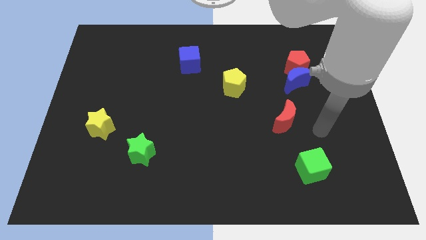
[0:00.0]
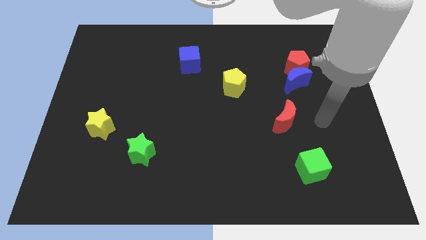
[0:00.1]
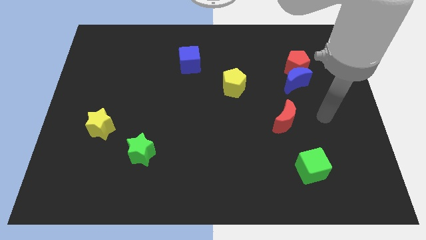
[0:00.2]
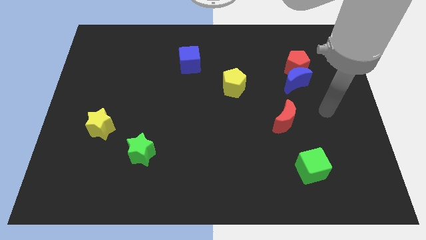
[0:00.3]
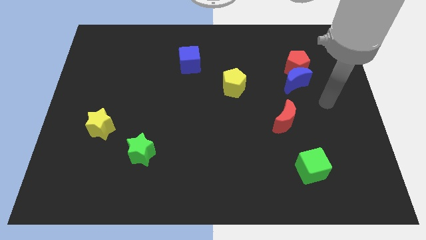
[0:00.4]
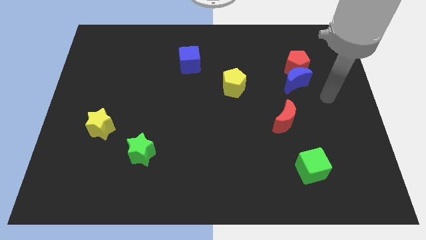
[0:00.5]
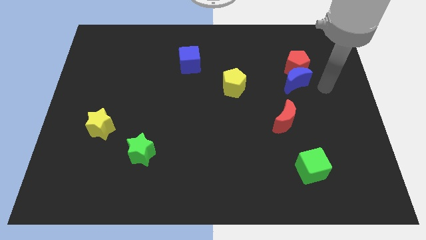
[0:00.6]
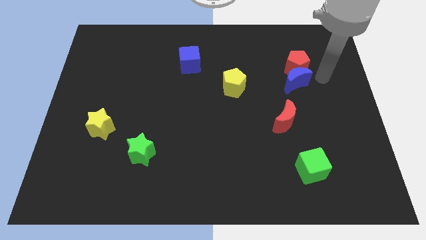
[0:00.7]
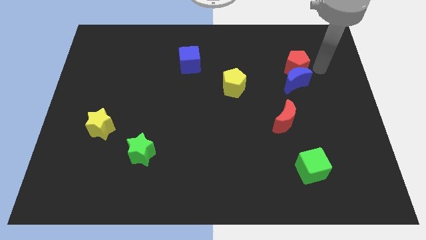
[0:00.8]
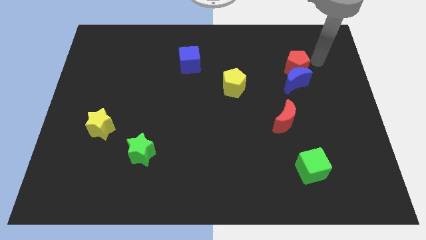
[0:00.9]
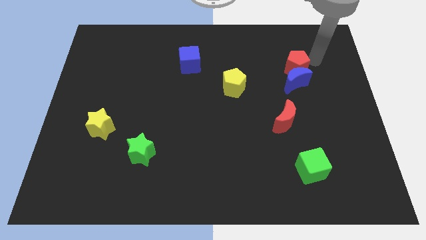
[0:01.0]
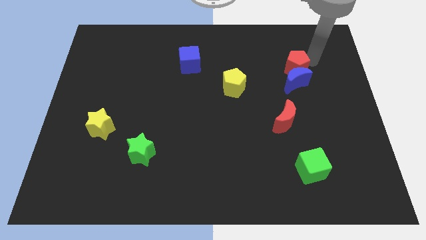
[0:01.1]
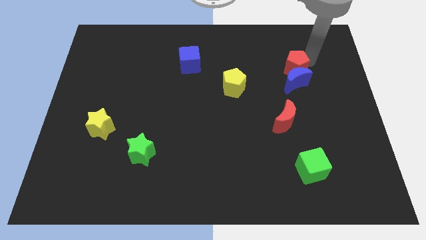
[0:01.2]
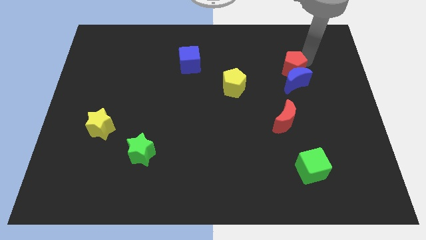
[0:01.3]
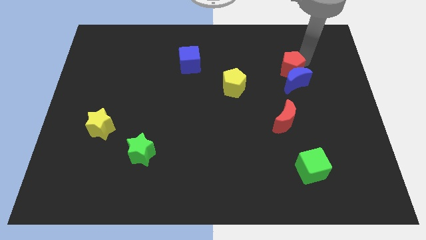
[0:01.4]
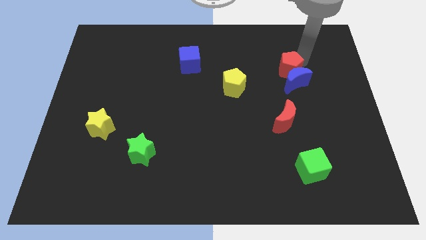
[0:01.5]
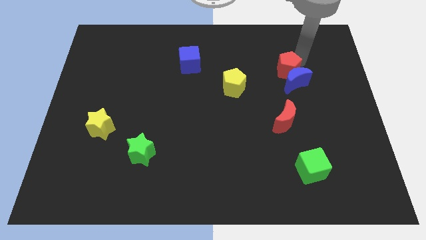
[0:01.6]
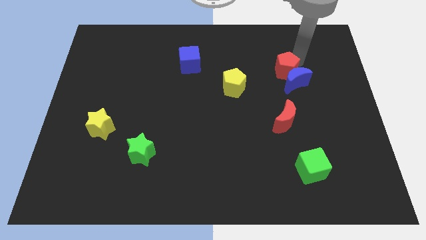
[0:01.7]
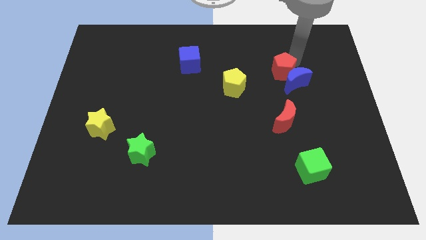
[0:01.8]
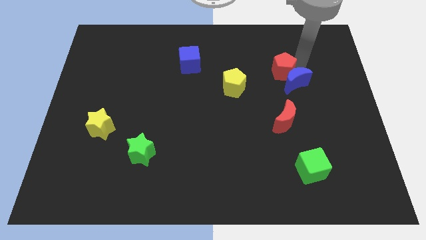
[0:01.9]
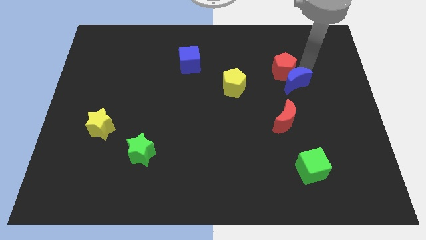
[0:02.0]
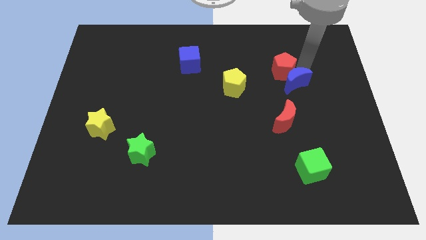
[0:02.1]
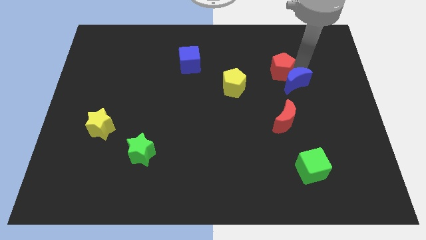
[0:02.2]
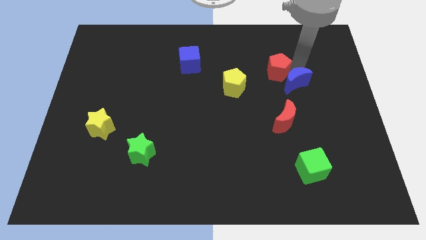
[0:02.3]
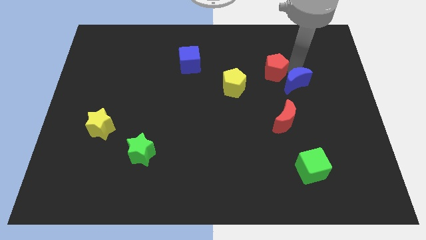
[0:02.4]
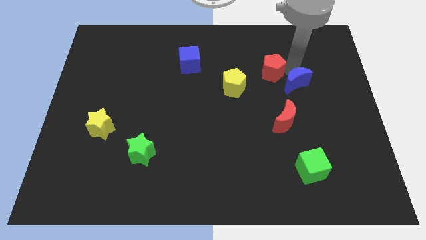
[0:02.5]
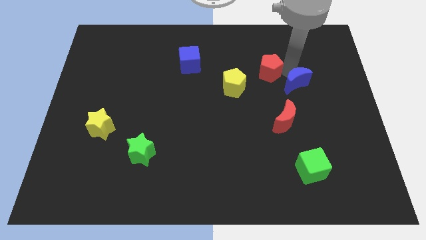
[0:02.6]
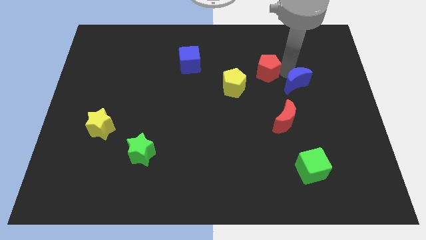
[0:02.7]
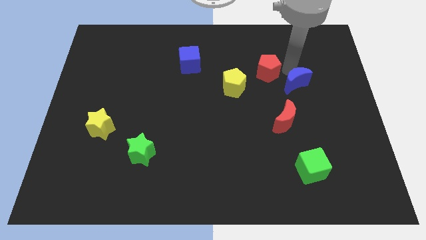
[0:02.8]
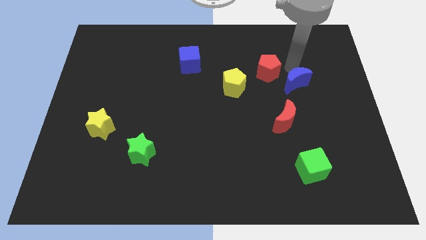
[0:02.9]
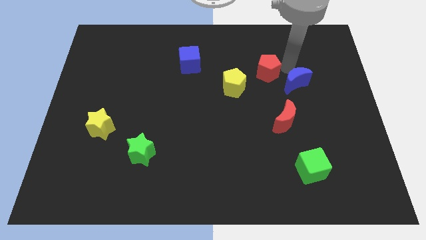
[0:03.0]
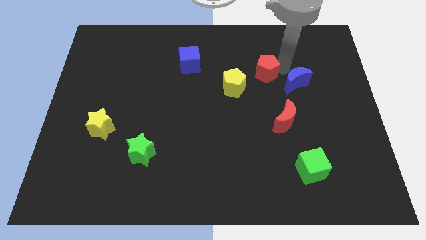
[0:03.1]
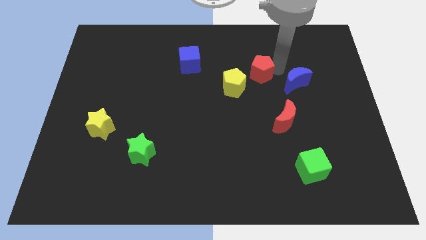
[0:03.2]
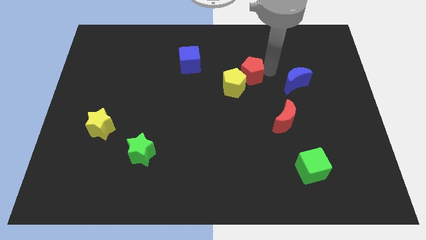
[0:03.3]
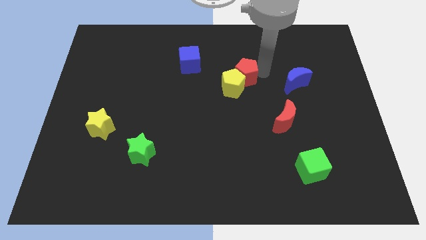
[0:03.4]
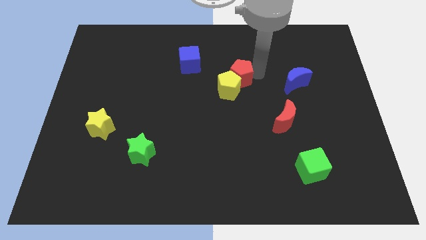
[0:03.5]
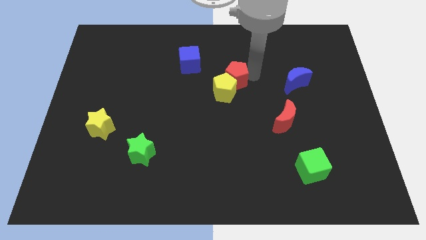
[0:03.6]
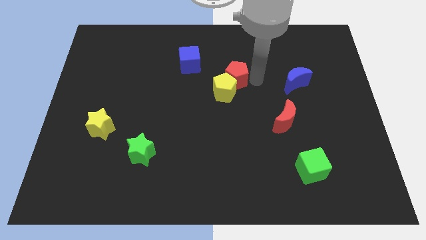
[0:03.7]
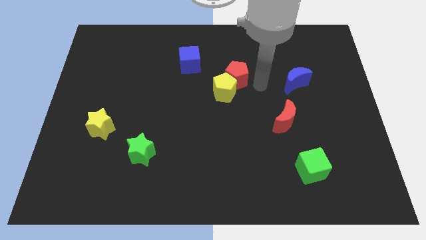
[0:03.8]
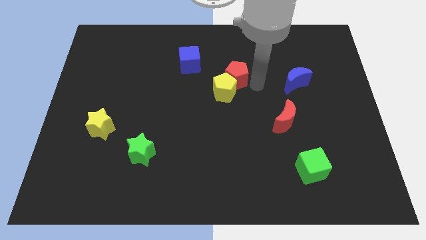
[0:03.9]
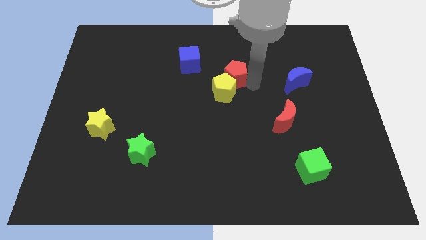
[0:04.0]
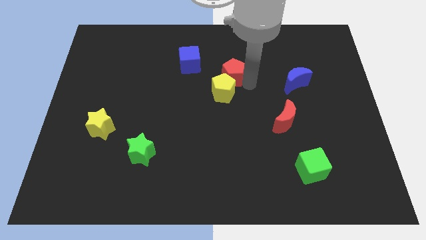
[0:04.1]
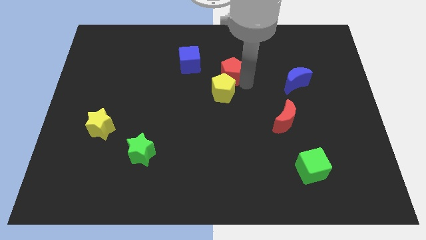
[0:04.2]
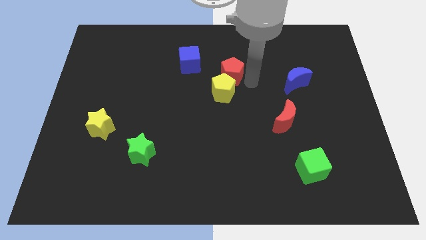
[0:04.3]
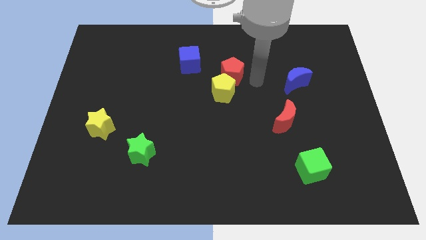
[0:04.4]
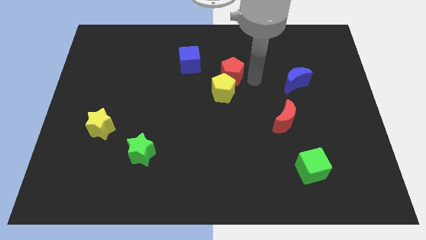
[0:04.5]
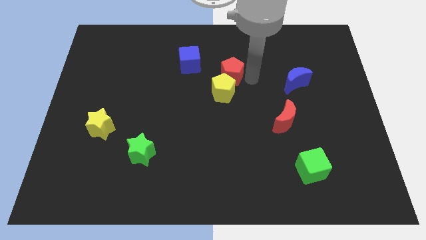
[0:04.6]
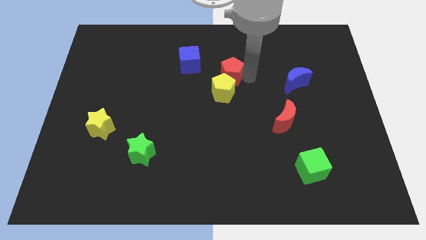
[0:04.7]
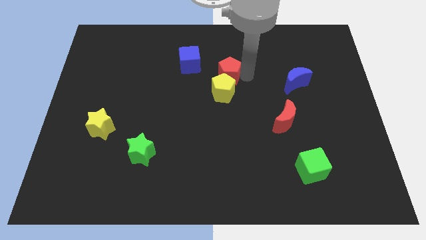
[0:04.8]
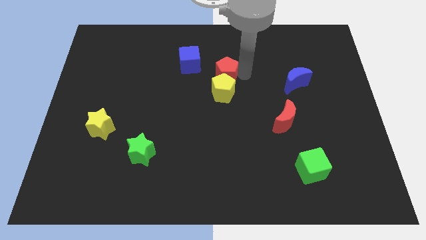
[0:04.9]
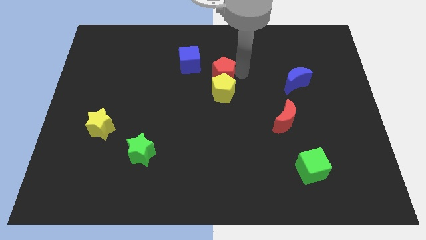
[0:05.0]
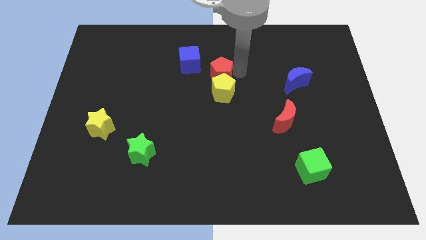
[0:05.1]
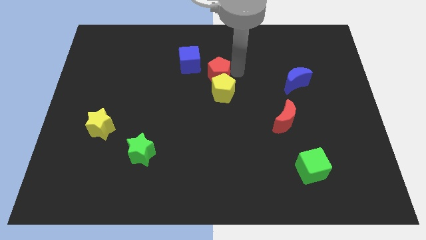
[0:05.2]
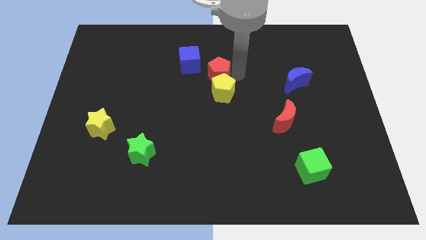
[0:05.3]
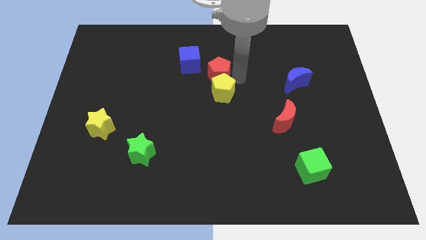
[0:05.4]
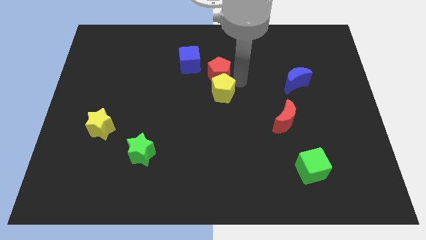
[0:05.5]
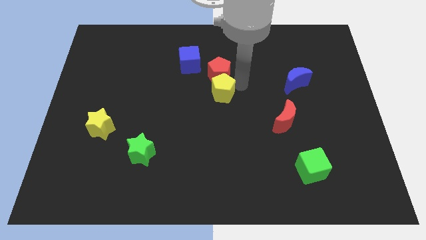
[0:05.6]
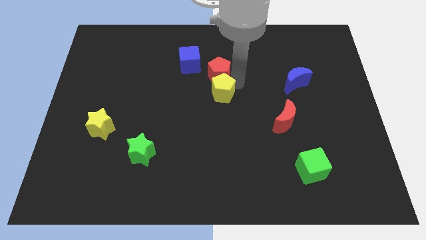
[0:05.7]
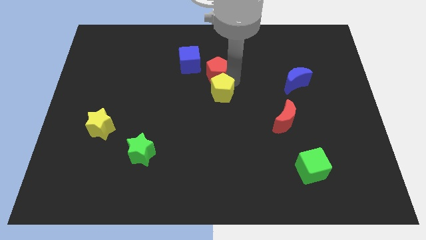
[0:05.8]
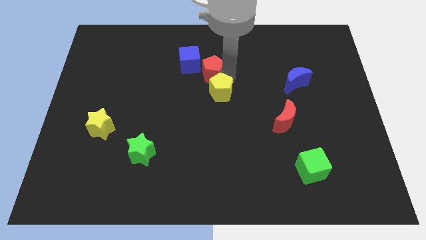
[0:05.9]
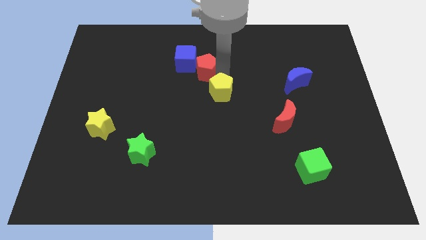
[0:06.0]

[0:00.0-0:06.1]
push the red pentagon next to the blue cube

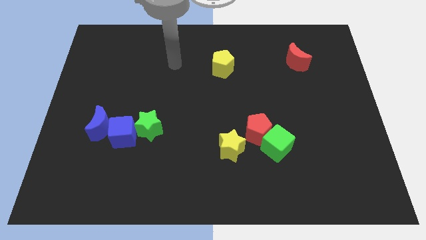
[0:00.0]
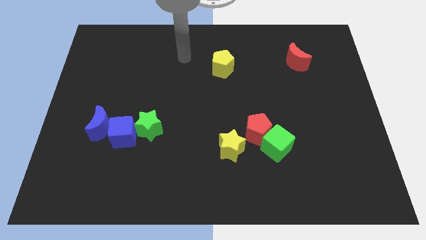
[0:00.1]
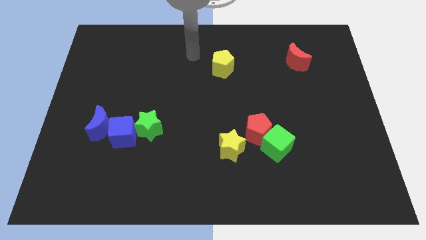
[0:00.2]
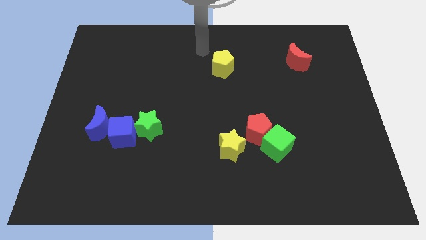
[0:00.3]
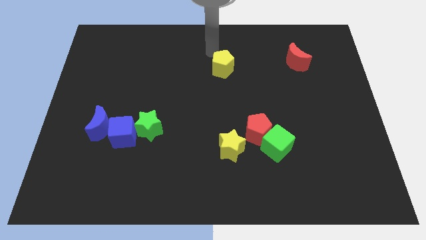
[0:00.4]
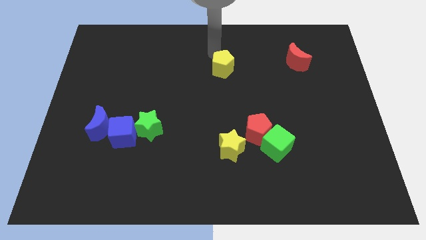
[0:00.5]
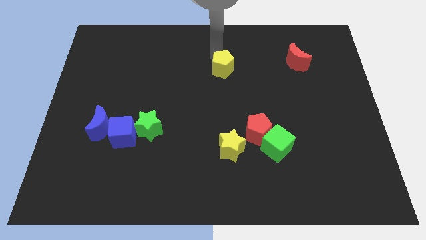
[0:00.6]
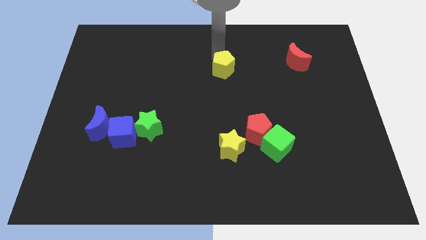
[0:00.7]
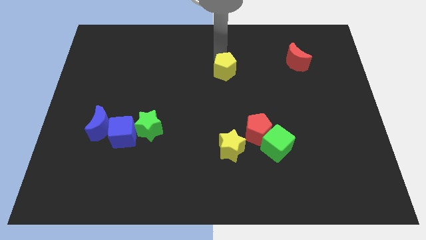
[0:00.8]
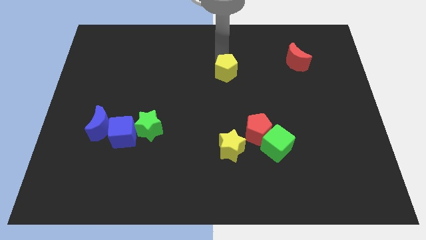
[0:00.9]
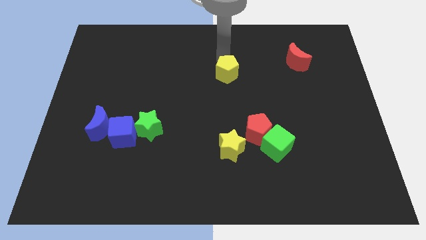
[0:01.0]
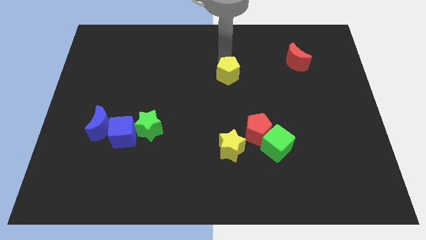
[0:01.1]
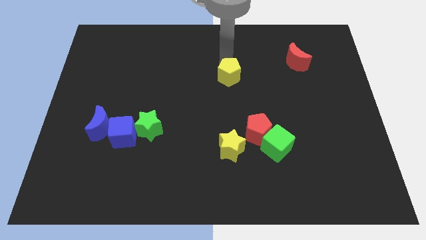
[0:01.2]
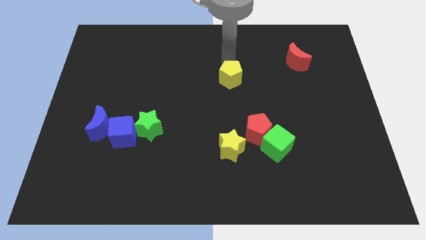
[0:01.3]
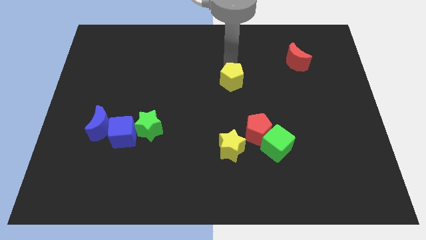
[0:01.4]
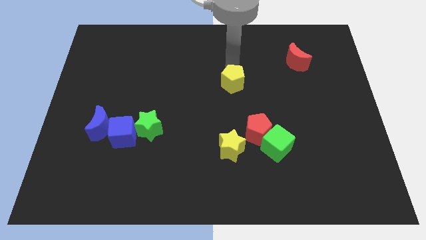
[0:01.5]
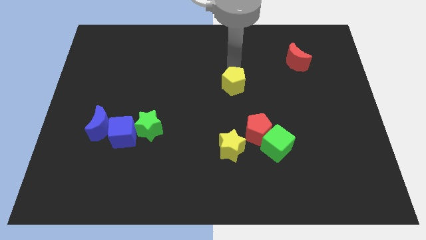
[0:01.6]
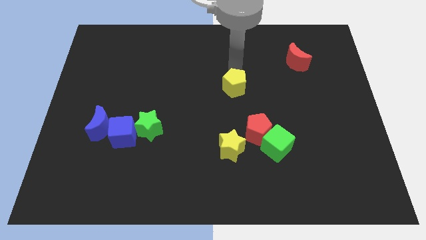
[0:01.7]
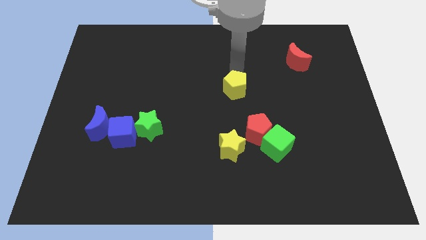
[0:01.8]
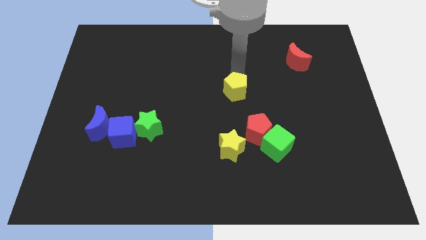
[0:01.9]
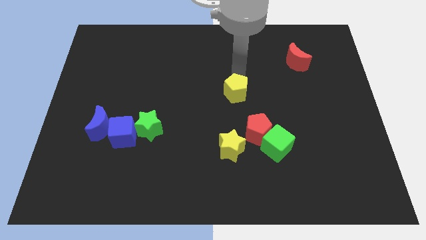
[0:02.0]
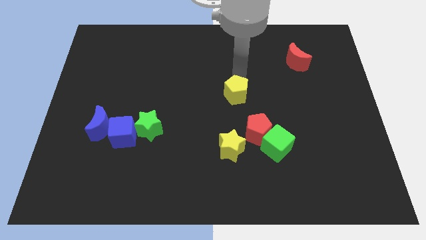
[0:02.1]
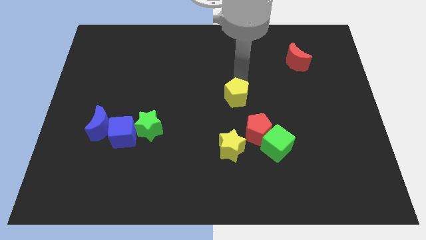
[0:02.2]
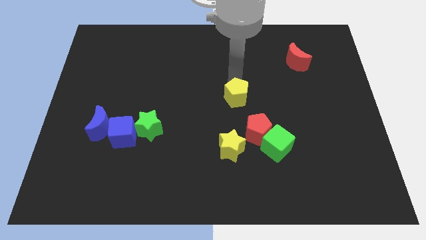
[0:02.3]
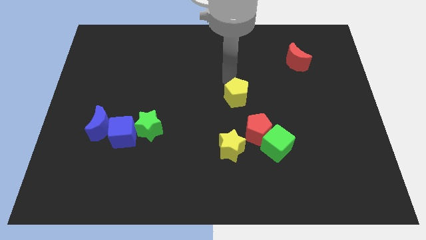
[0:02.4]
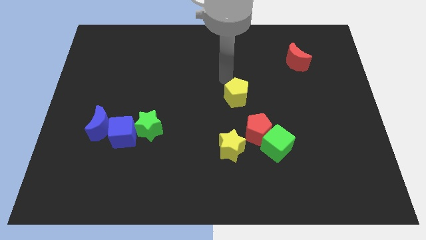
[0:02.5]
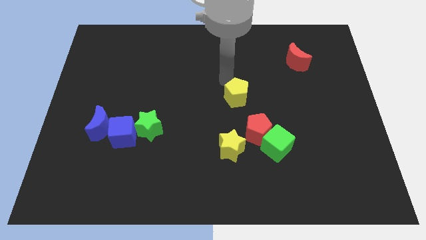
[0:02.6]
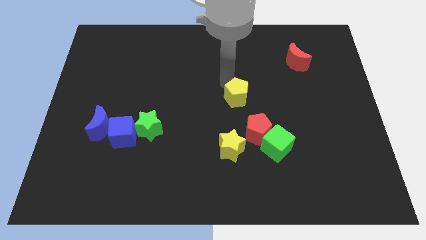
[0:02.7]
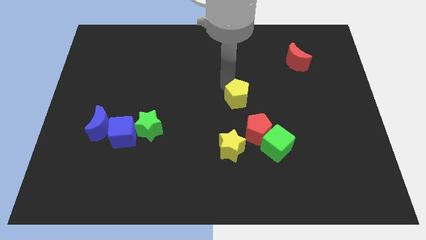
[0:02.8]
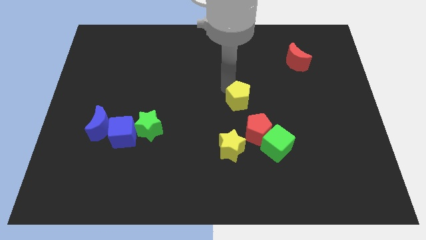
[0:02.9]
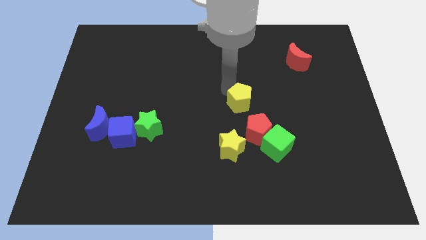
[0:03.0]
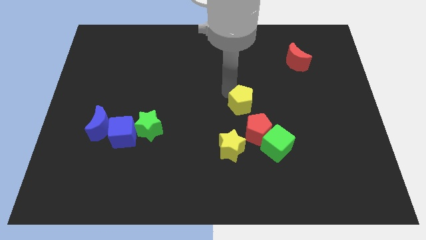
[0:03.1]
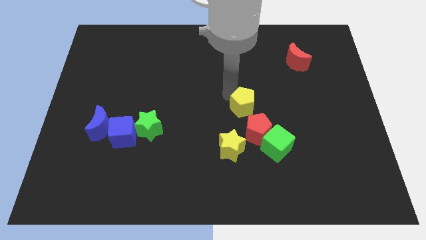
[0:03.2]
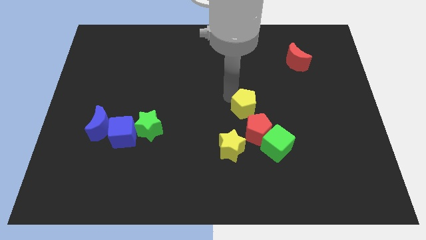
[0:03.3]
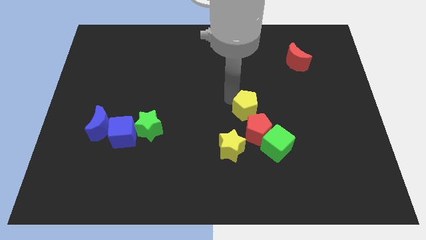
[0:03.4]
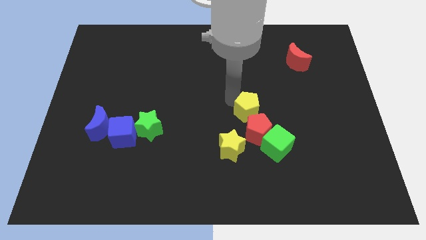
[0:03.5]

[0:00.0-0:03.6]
push the yellow pentagon towards the red pentagon
